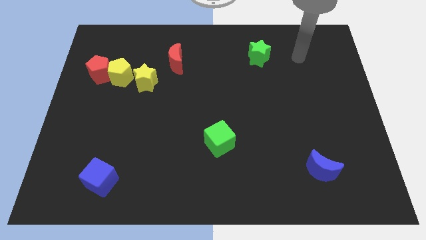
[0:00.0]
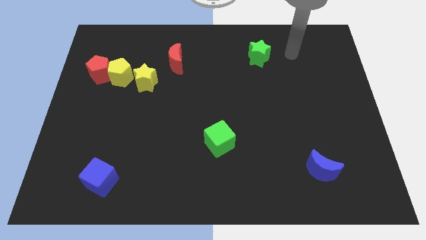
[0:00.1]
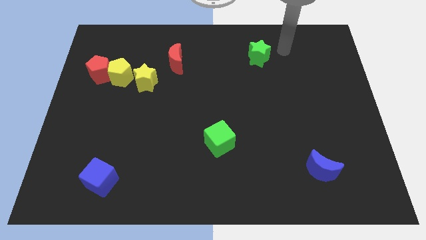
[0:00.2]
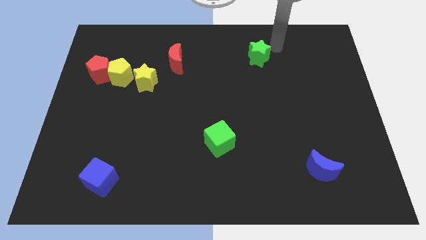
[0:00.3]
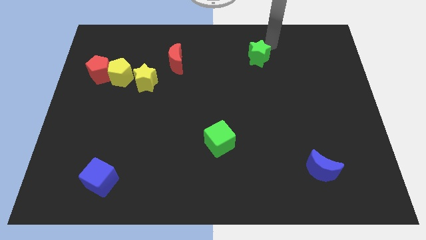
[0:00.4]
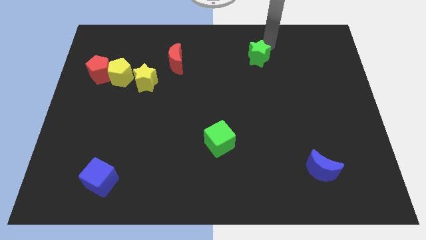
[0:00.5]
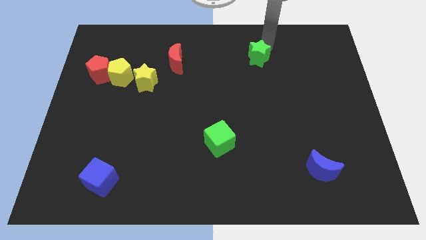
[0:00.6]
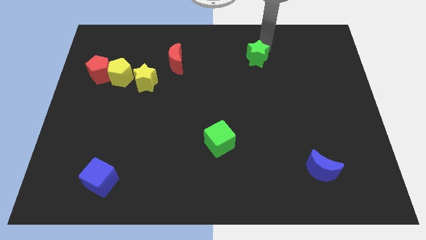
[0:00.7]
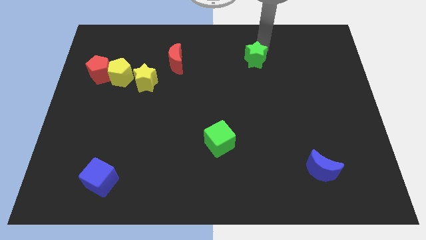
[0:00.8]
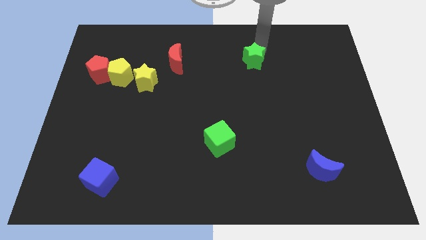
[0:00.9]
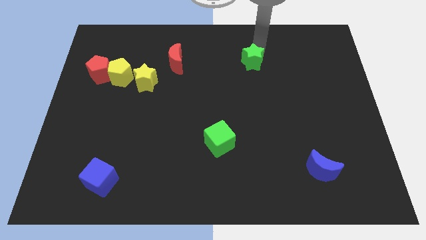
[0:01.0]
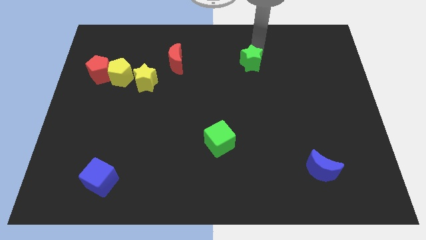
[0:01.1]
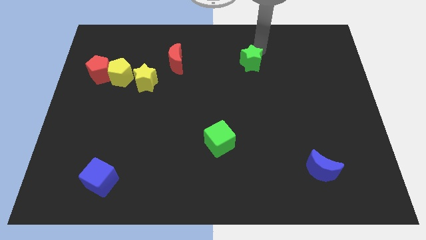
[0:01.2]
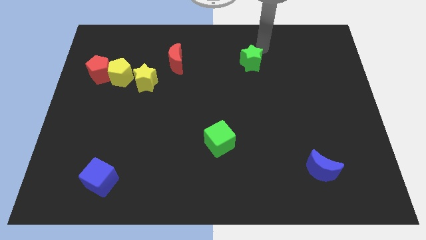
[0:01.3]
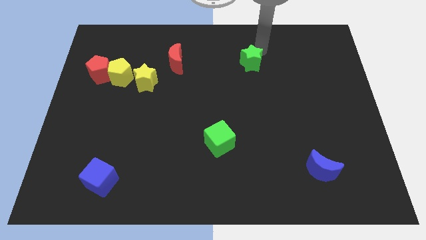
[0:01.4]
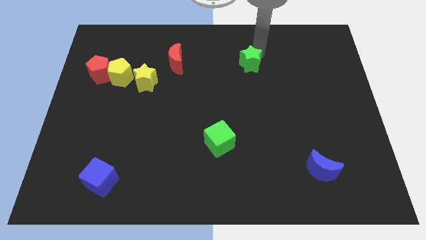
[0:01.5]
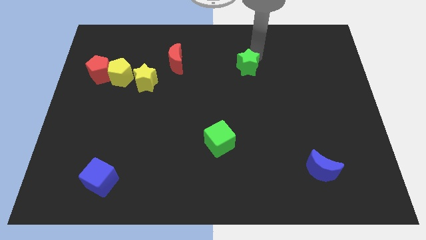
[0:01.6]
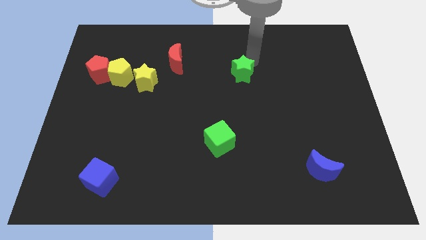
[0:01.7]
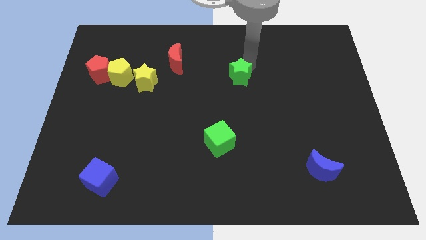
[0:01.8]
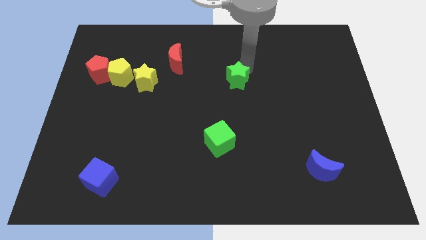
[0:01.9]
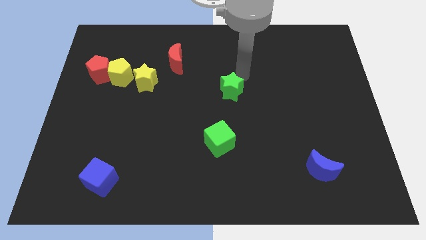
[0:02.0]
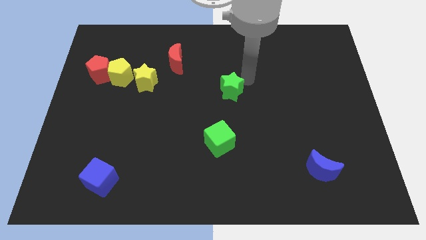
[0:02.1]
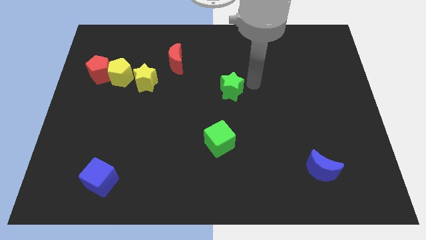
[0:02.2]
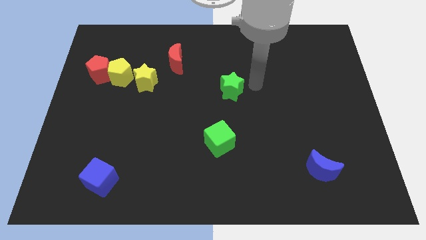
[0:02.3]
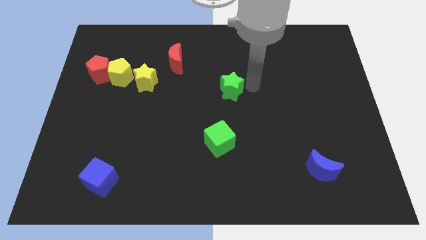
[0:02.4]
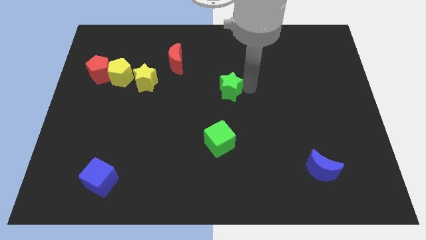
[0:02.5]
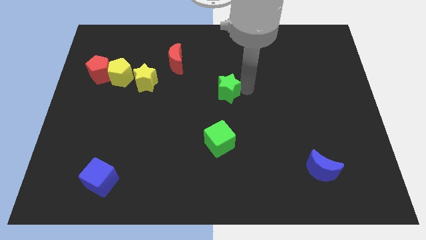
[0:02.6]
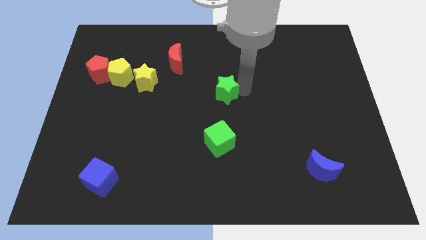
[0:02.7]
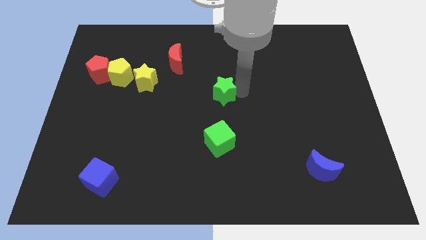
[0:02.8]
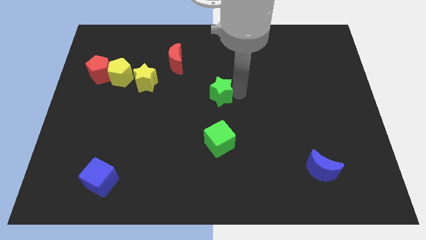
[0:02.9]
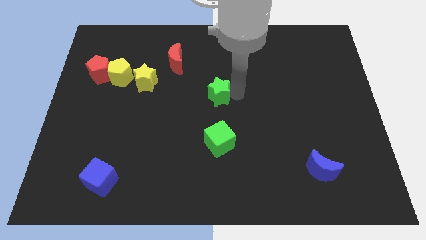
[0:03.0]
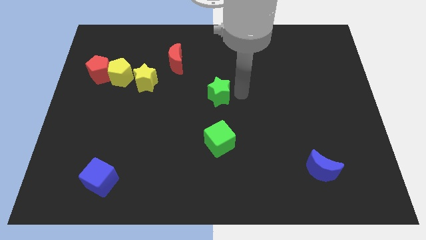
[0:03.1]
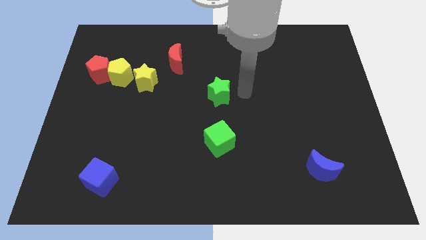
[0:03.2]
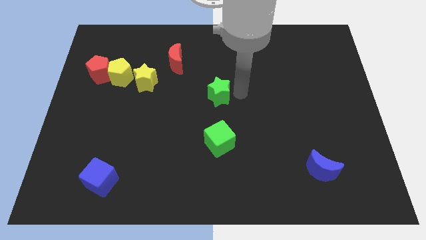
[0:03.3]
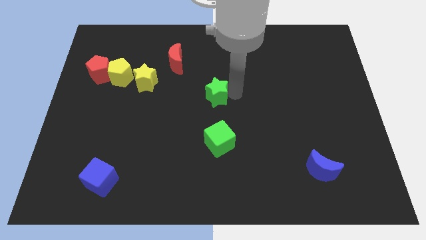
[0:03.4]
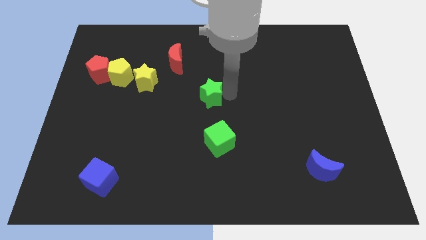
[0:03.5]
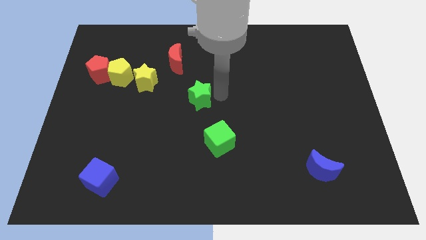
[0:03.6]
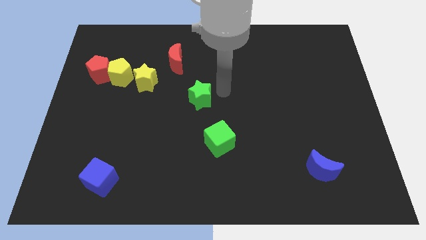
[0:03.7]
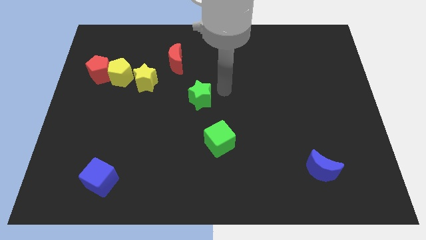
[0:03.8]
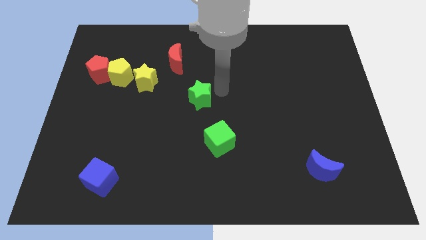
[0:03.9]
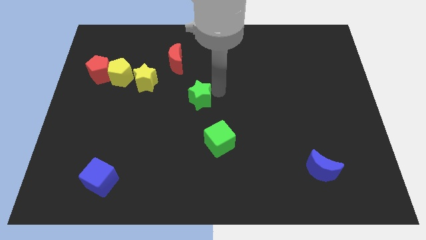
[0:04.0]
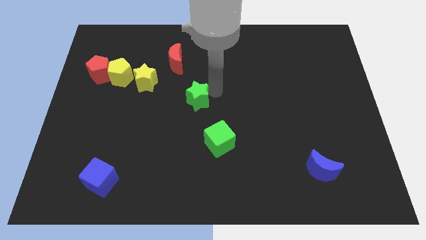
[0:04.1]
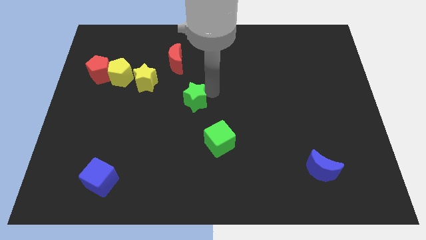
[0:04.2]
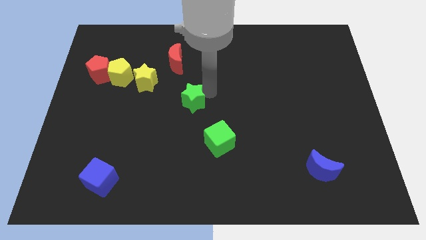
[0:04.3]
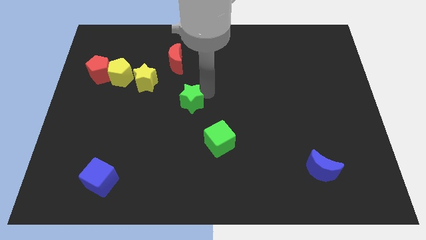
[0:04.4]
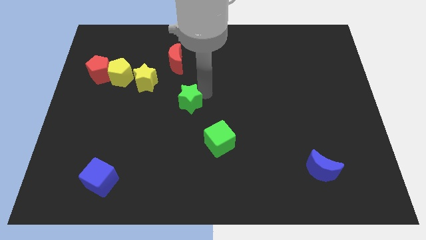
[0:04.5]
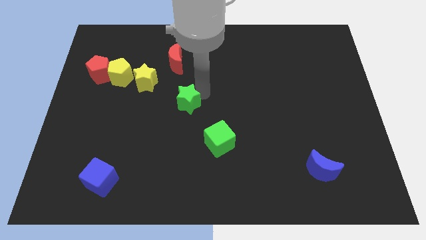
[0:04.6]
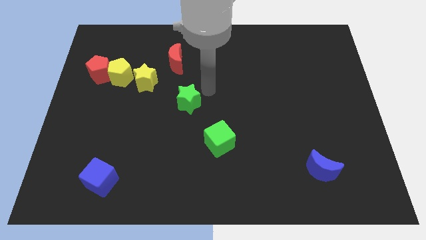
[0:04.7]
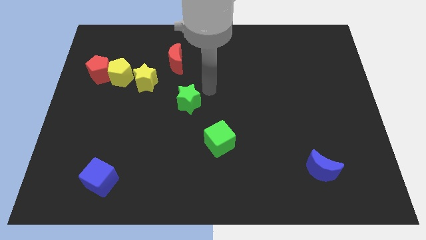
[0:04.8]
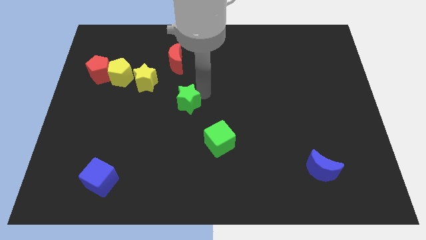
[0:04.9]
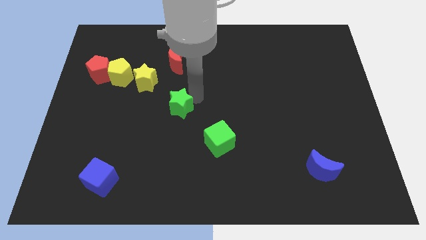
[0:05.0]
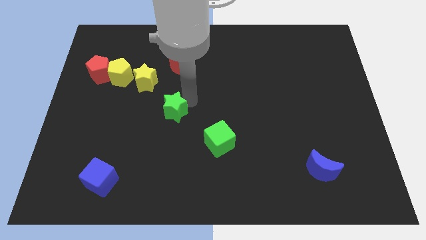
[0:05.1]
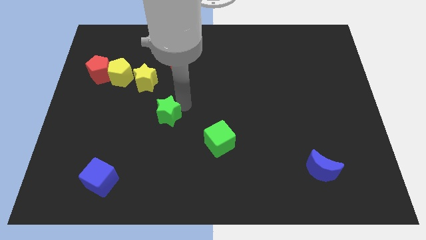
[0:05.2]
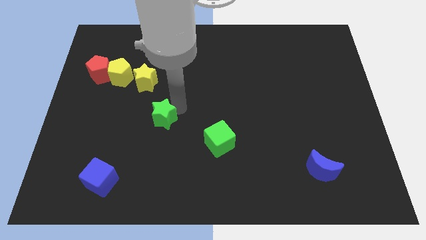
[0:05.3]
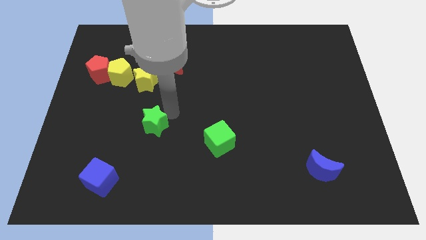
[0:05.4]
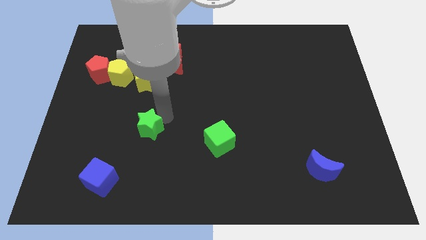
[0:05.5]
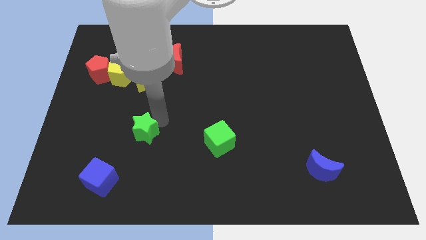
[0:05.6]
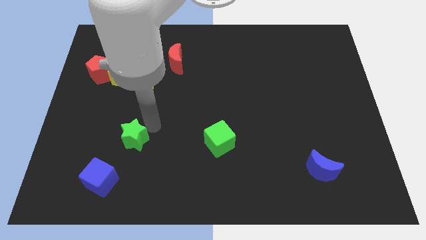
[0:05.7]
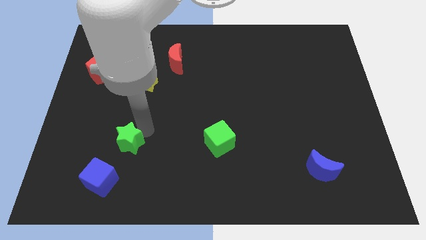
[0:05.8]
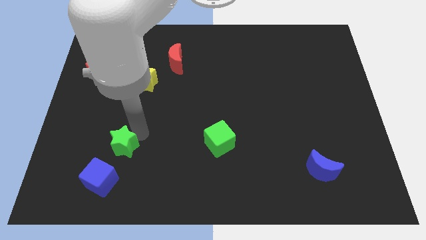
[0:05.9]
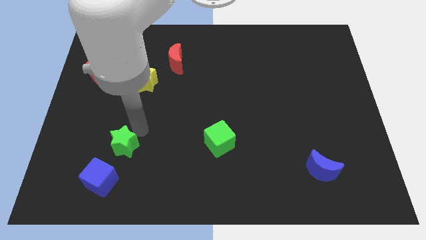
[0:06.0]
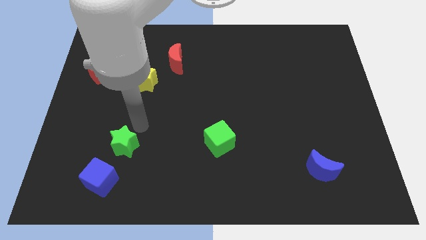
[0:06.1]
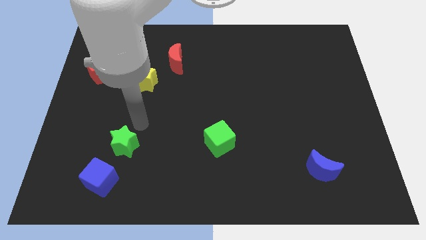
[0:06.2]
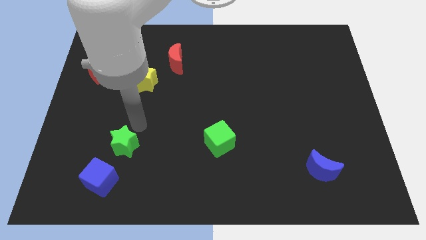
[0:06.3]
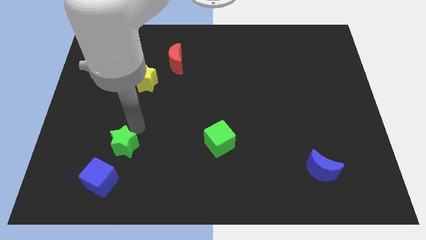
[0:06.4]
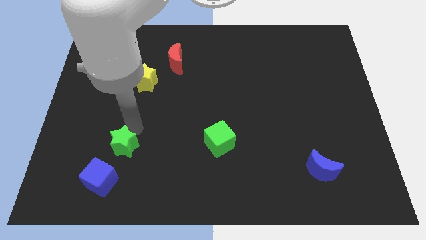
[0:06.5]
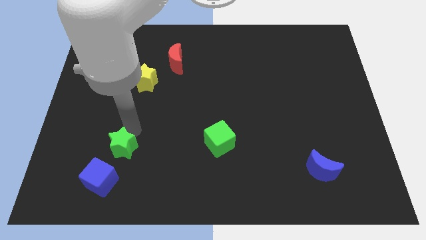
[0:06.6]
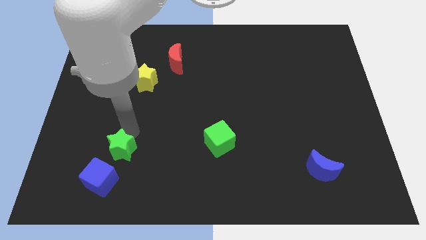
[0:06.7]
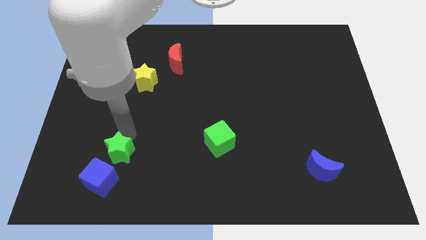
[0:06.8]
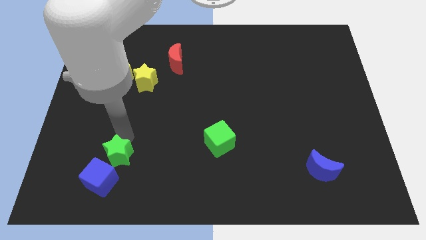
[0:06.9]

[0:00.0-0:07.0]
slide the green star towards the blue cube

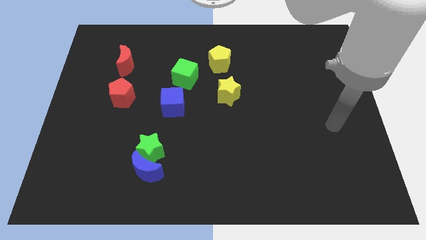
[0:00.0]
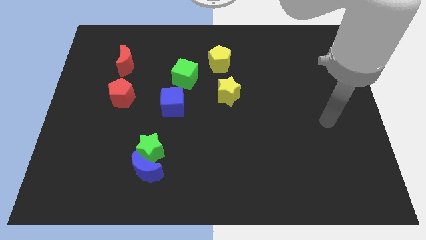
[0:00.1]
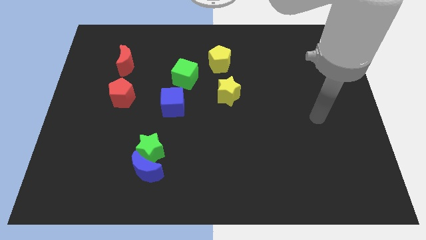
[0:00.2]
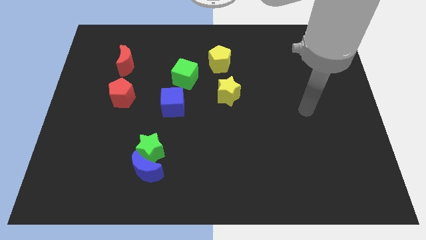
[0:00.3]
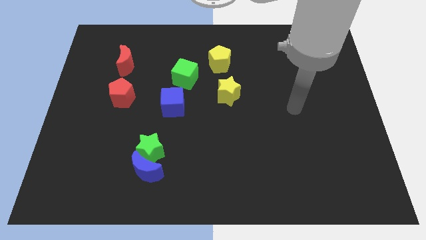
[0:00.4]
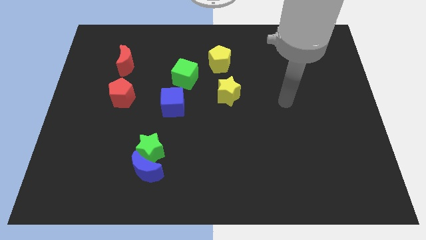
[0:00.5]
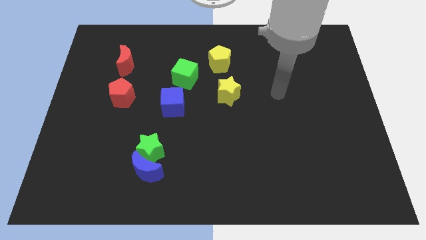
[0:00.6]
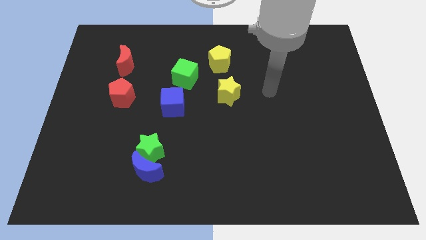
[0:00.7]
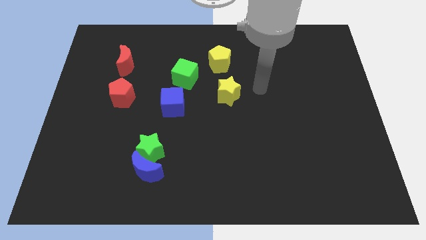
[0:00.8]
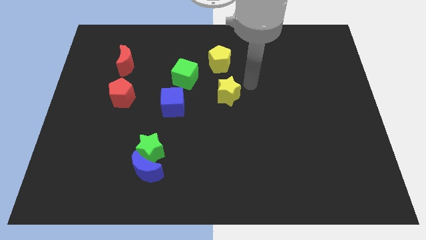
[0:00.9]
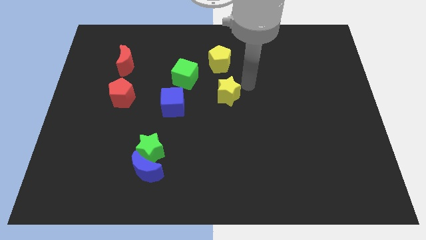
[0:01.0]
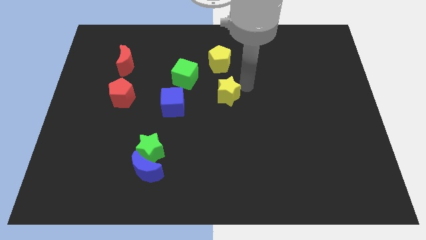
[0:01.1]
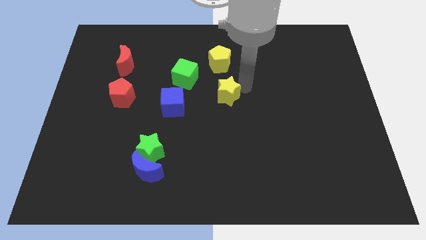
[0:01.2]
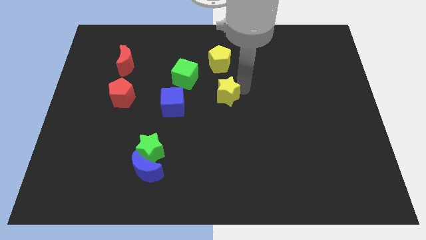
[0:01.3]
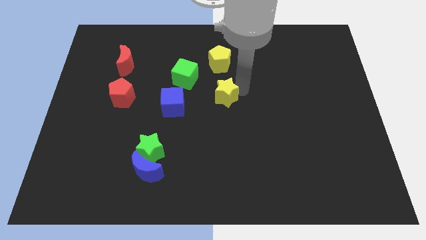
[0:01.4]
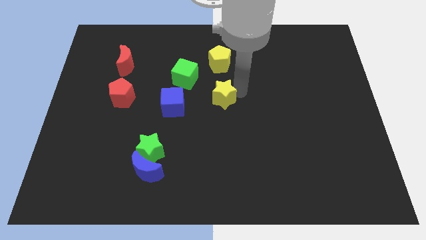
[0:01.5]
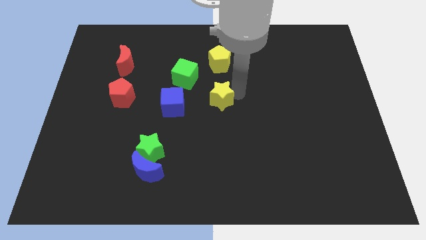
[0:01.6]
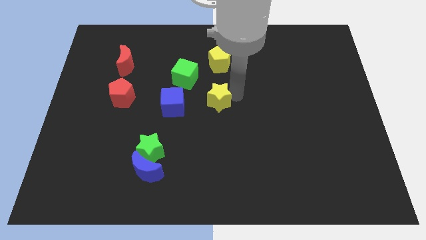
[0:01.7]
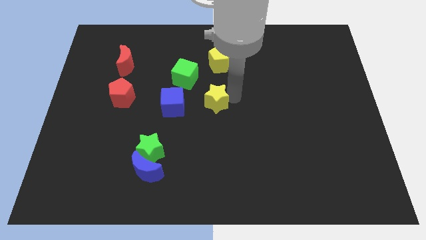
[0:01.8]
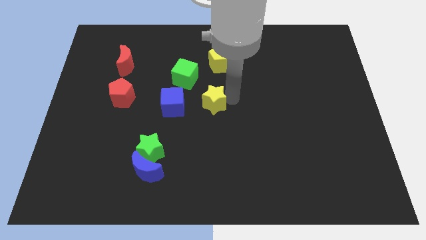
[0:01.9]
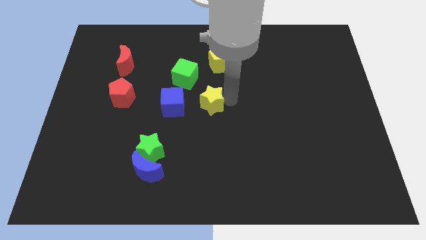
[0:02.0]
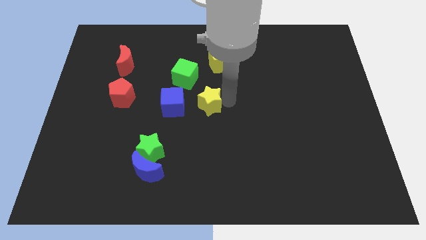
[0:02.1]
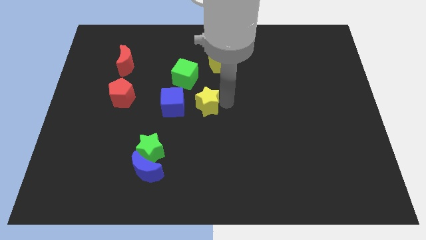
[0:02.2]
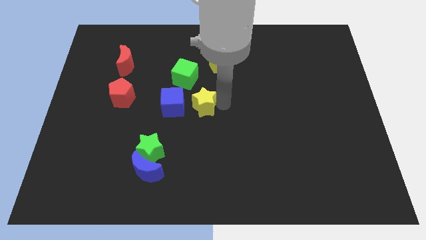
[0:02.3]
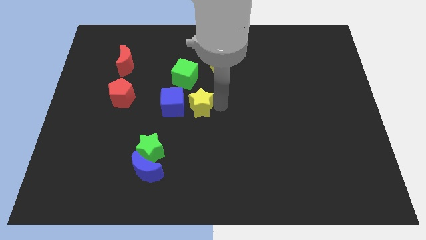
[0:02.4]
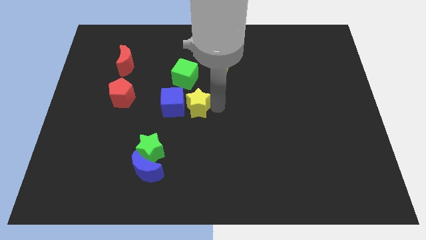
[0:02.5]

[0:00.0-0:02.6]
put the yellow star close to the blue cube
